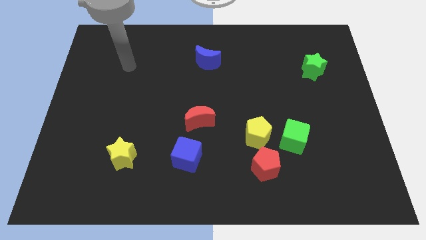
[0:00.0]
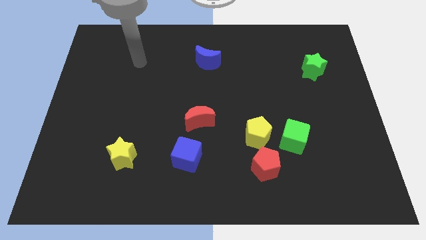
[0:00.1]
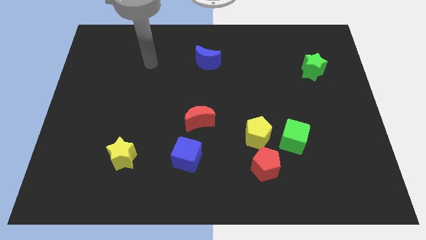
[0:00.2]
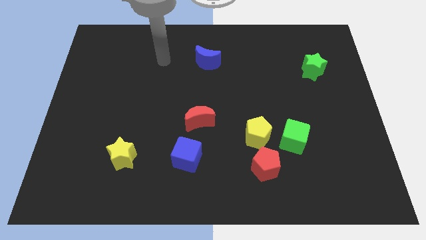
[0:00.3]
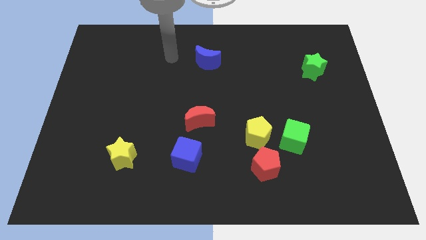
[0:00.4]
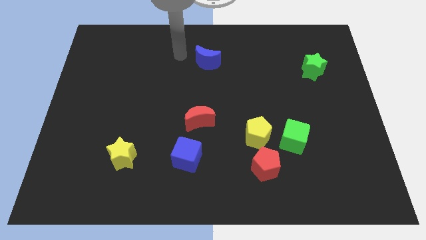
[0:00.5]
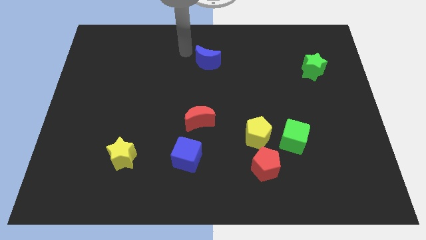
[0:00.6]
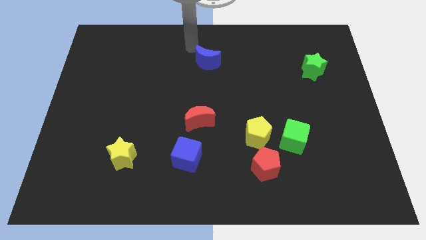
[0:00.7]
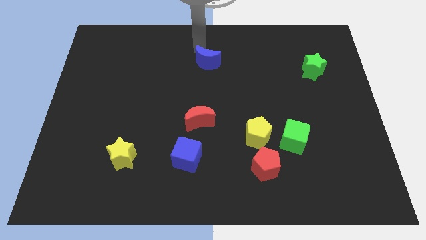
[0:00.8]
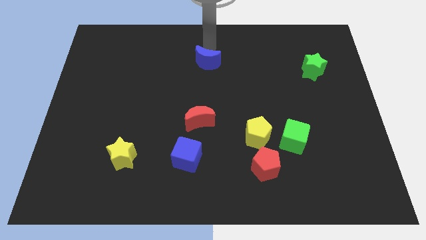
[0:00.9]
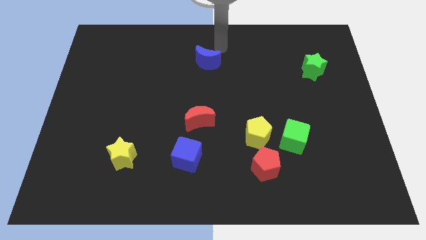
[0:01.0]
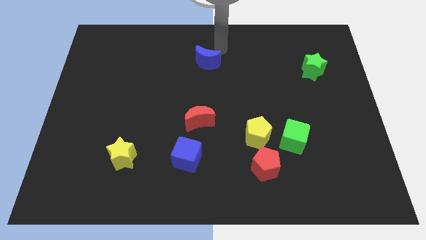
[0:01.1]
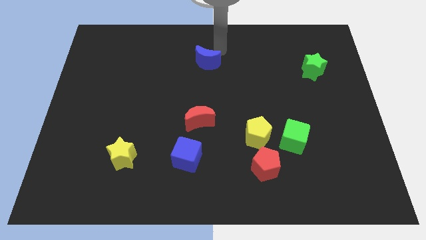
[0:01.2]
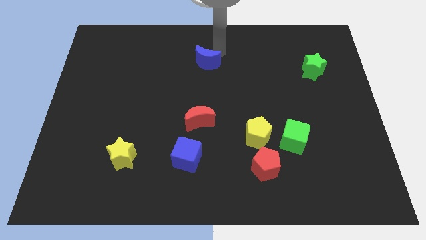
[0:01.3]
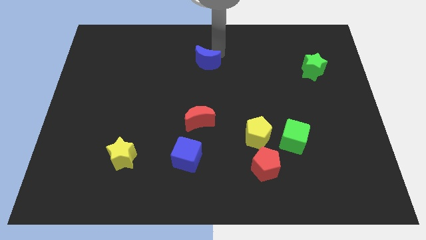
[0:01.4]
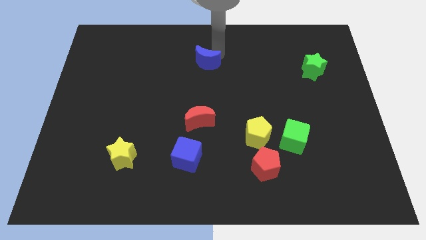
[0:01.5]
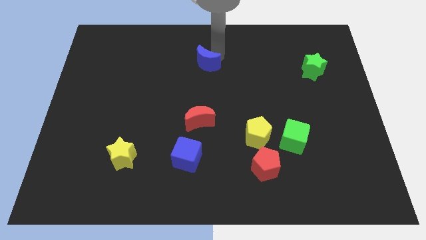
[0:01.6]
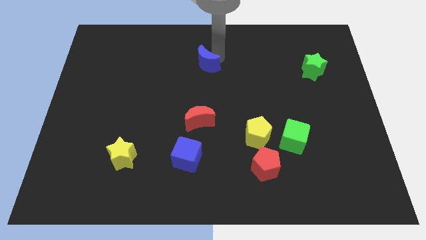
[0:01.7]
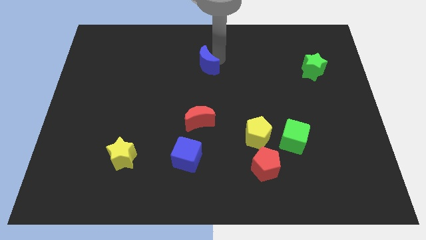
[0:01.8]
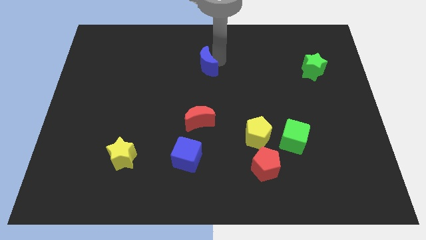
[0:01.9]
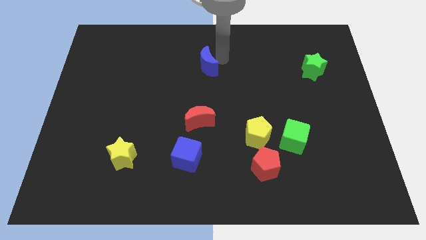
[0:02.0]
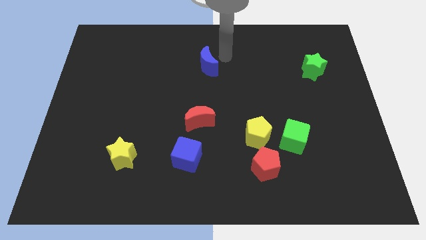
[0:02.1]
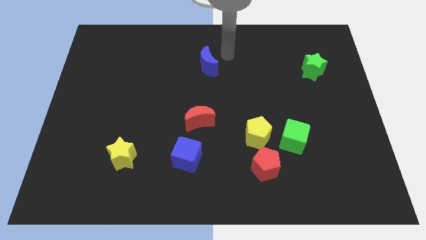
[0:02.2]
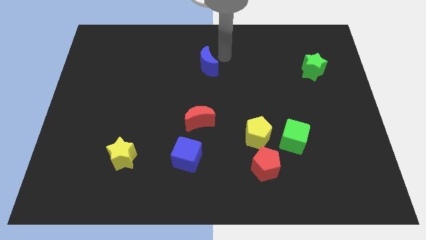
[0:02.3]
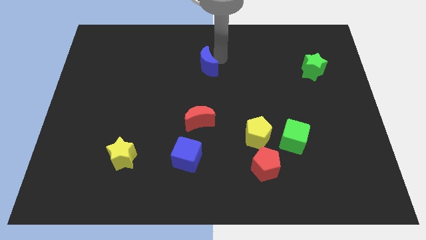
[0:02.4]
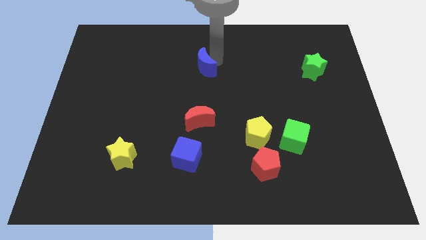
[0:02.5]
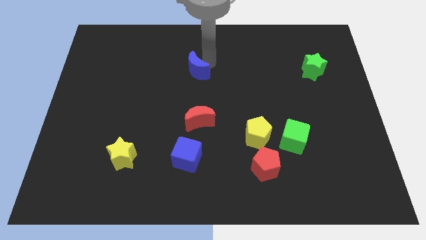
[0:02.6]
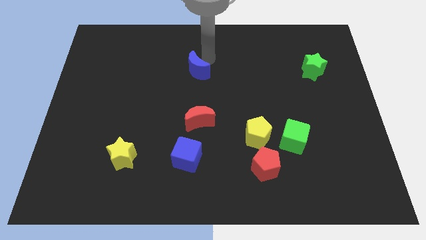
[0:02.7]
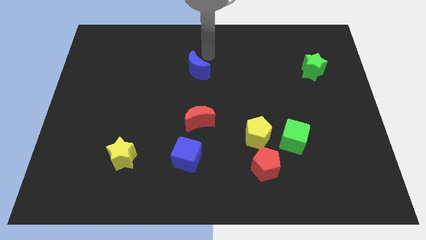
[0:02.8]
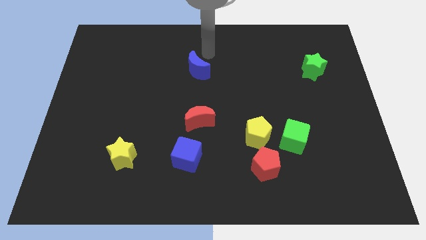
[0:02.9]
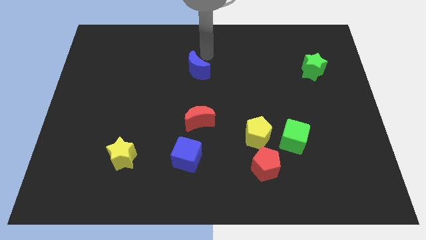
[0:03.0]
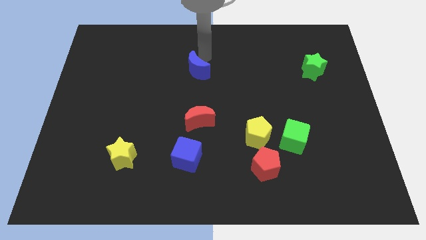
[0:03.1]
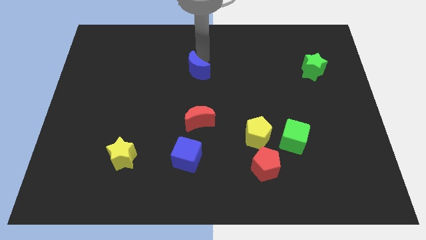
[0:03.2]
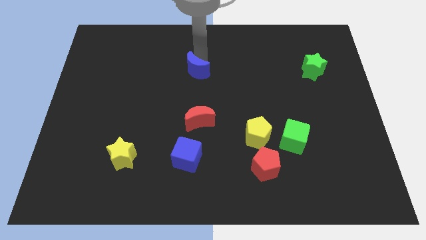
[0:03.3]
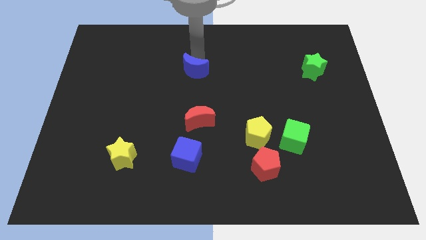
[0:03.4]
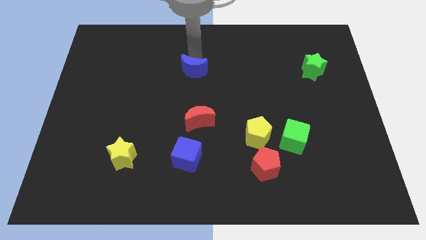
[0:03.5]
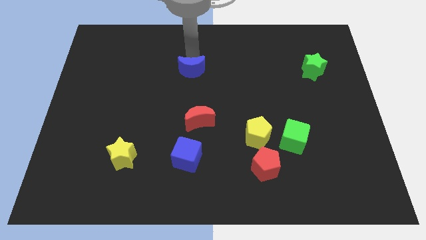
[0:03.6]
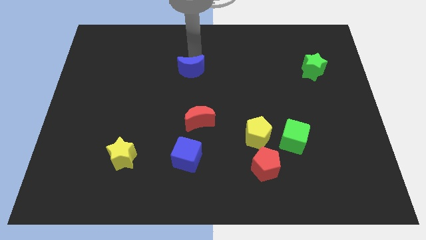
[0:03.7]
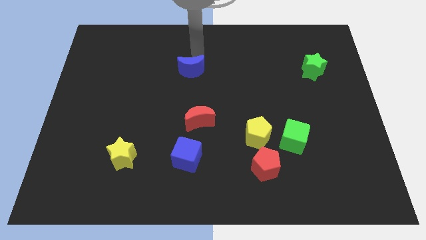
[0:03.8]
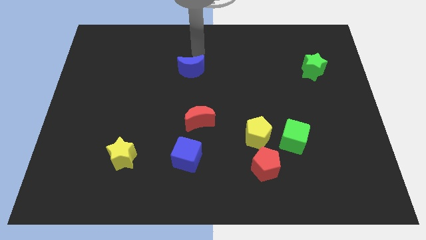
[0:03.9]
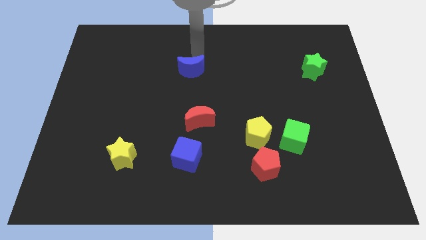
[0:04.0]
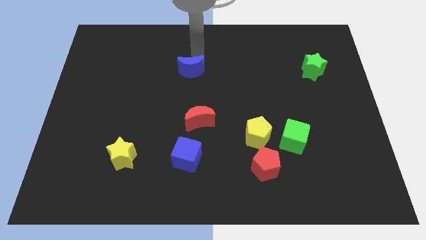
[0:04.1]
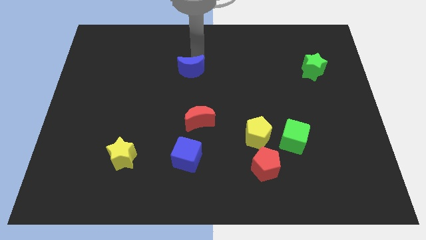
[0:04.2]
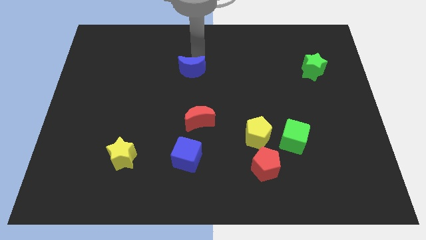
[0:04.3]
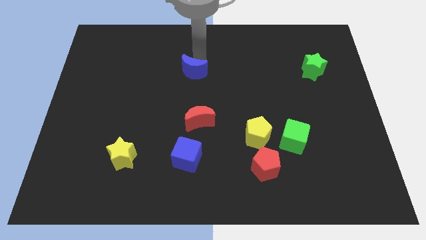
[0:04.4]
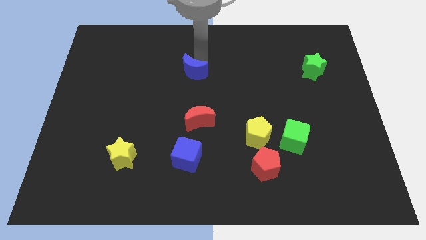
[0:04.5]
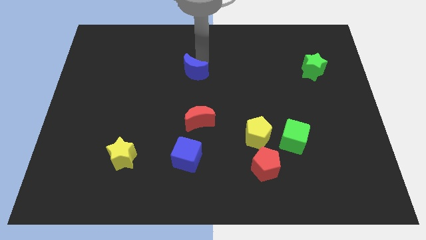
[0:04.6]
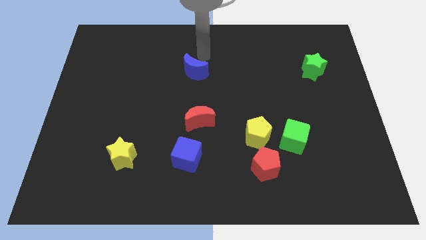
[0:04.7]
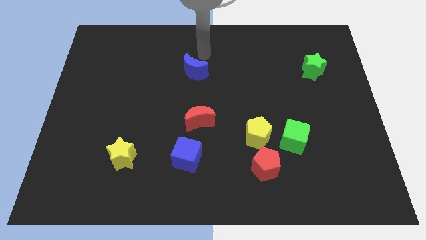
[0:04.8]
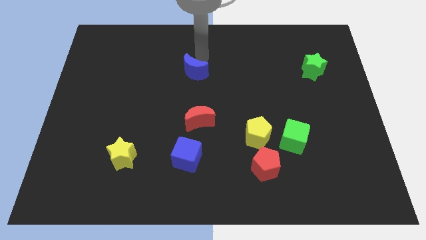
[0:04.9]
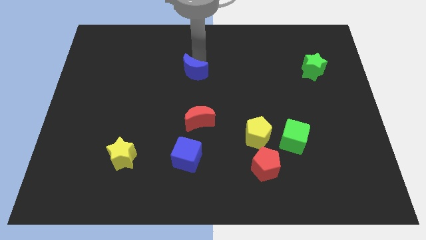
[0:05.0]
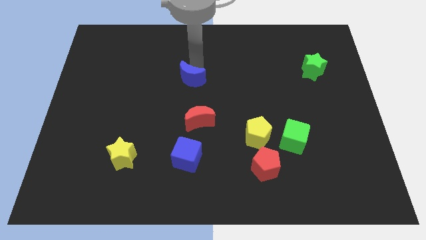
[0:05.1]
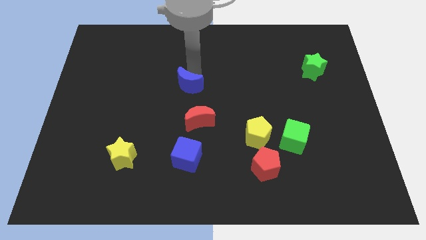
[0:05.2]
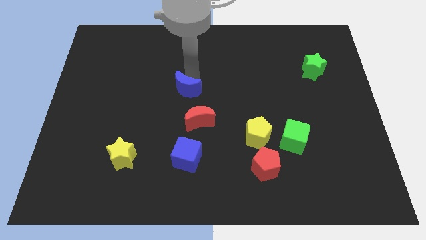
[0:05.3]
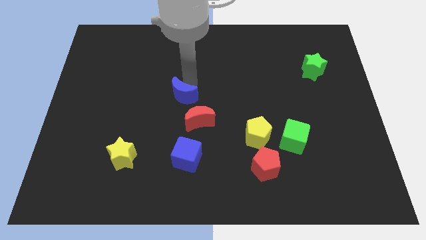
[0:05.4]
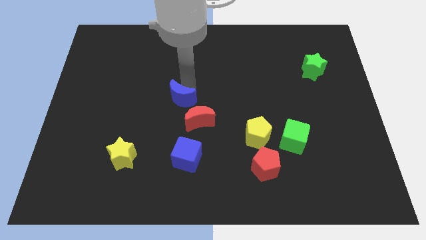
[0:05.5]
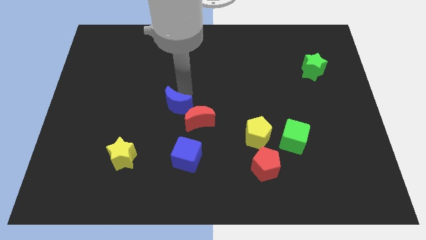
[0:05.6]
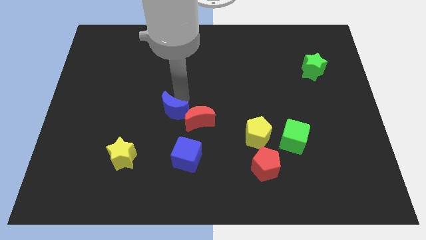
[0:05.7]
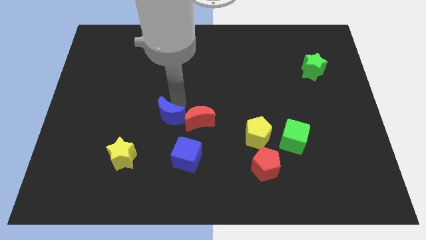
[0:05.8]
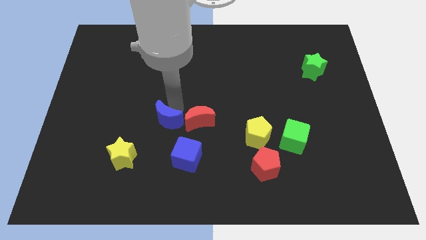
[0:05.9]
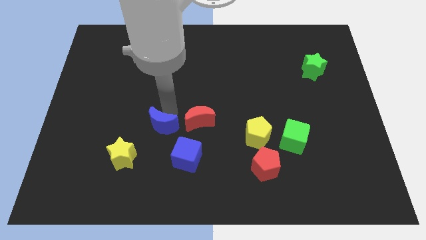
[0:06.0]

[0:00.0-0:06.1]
move the blue moon diagonally down and to the left of the red moon

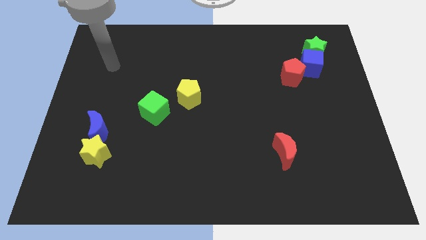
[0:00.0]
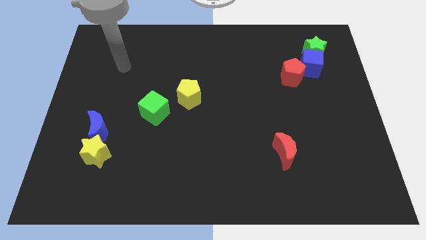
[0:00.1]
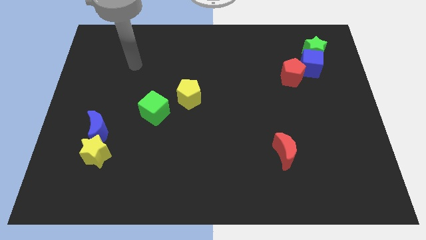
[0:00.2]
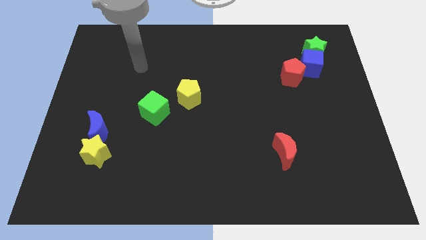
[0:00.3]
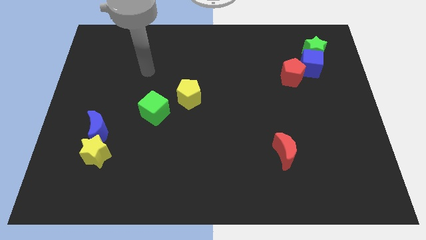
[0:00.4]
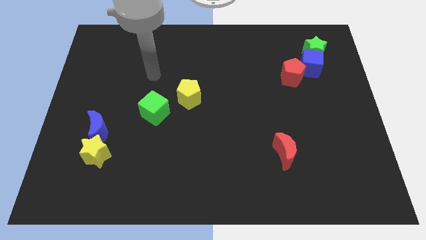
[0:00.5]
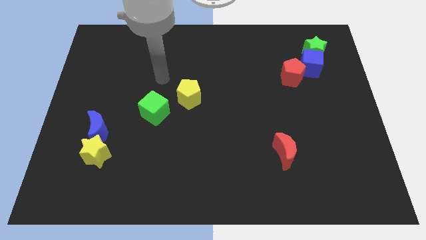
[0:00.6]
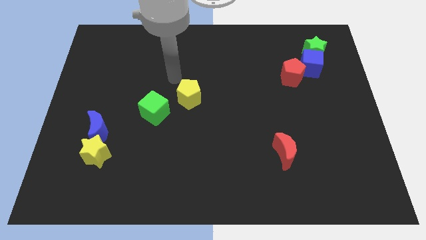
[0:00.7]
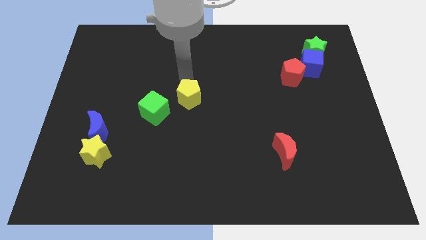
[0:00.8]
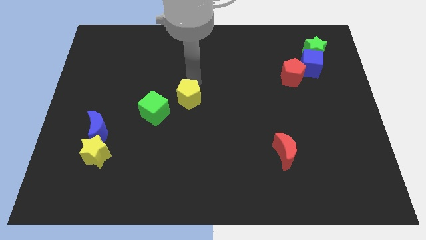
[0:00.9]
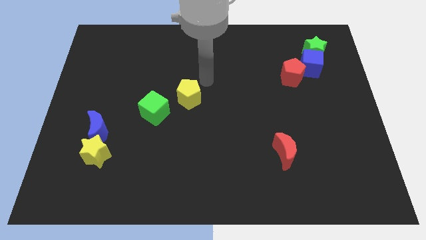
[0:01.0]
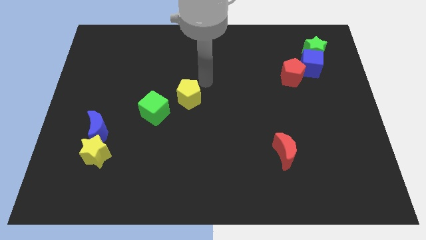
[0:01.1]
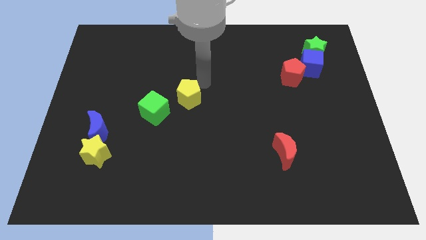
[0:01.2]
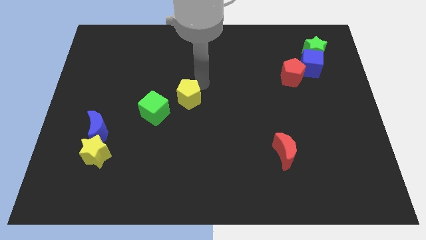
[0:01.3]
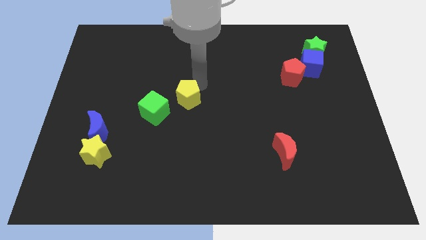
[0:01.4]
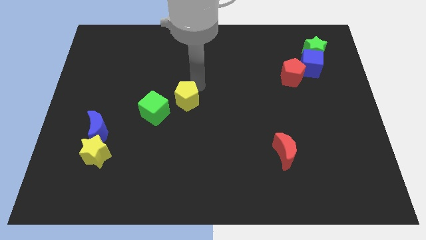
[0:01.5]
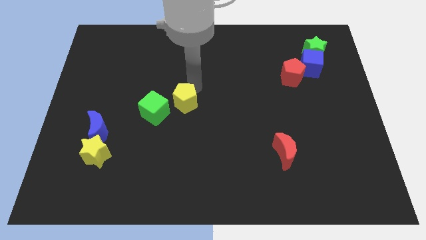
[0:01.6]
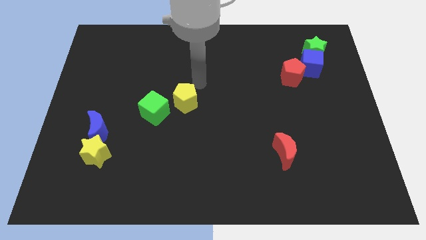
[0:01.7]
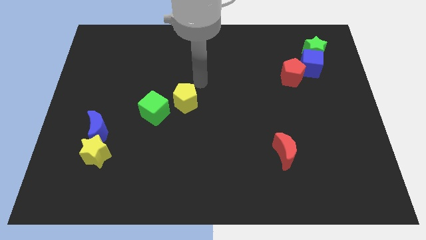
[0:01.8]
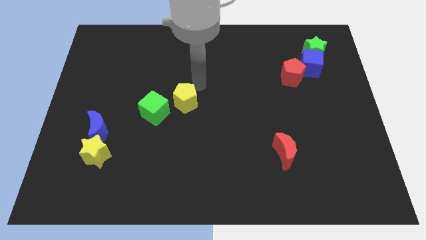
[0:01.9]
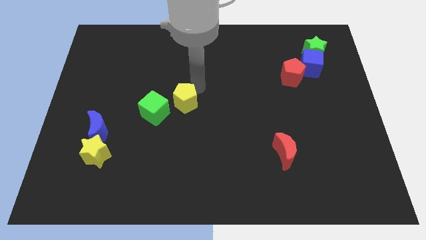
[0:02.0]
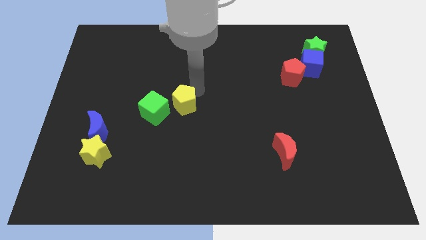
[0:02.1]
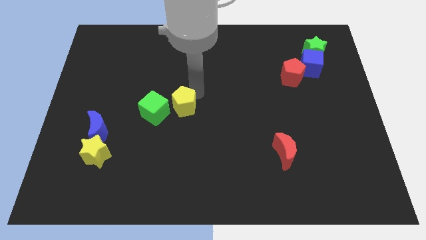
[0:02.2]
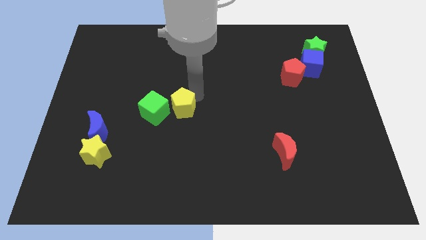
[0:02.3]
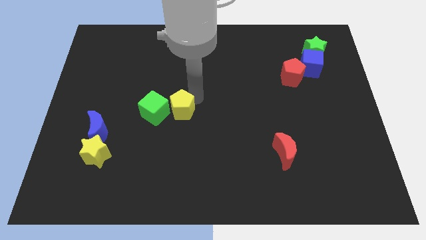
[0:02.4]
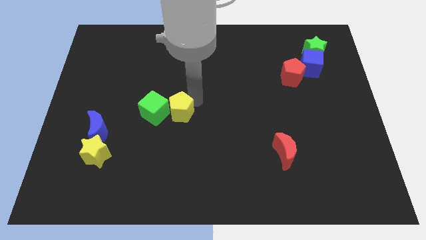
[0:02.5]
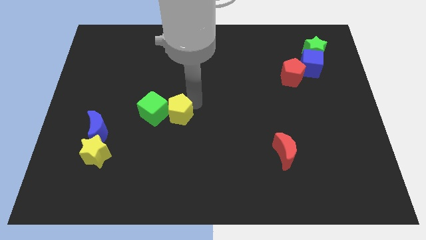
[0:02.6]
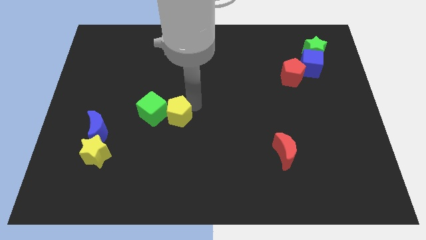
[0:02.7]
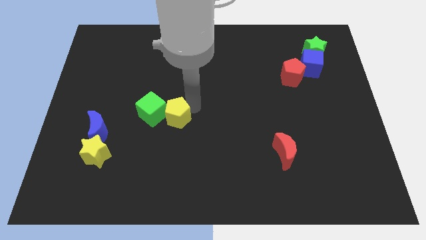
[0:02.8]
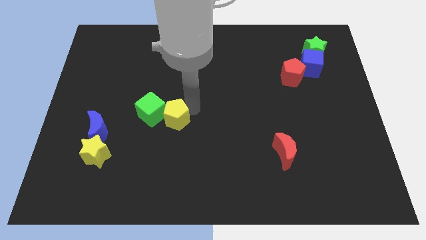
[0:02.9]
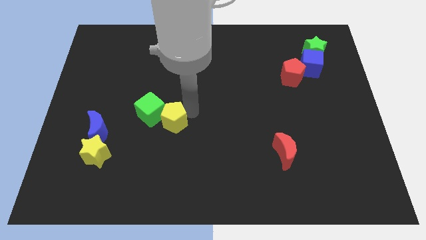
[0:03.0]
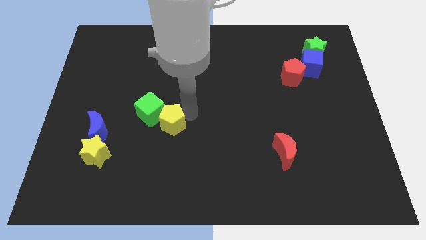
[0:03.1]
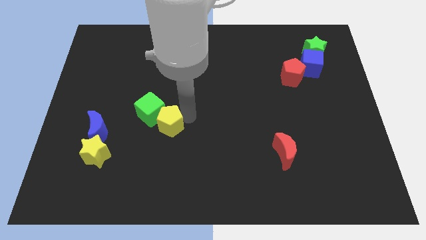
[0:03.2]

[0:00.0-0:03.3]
put the yellow pentagon just right of the blue moon
